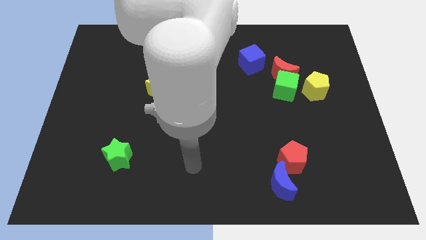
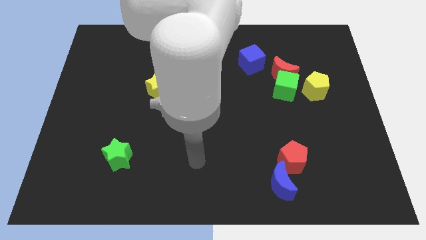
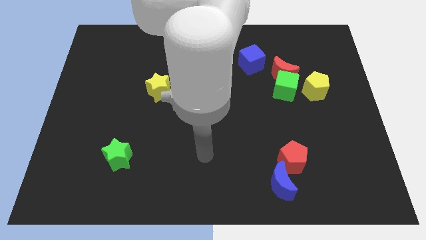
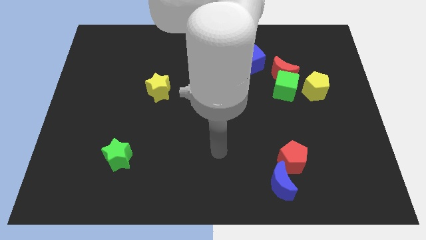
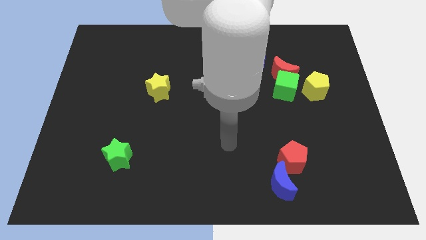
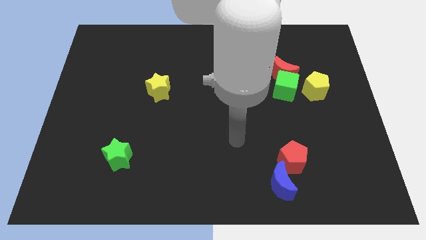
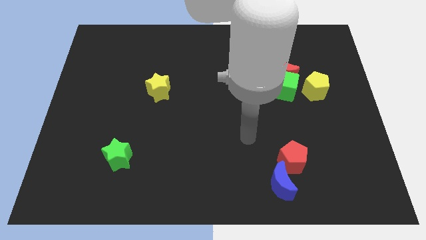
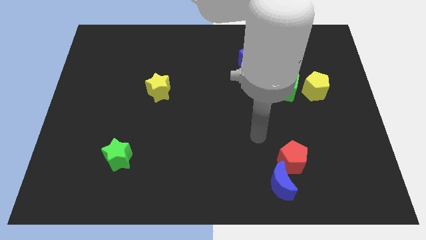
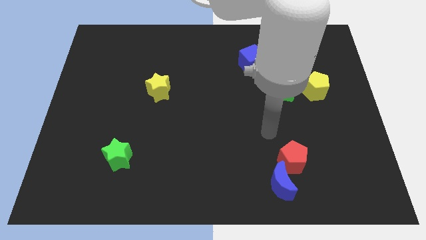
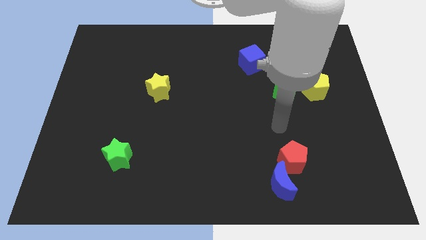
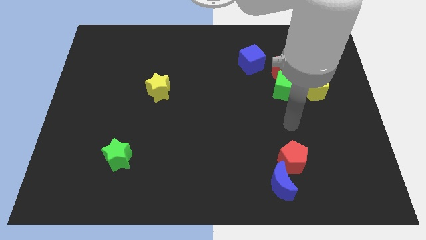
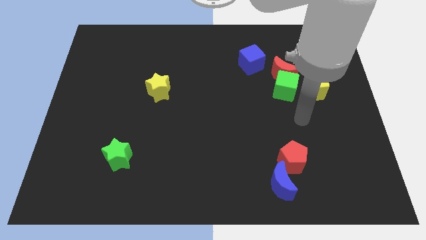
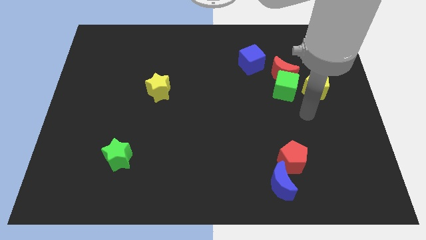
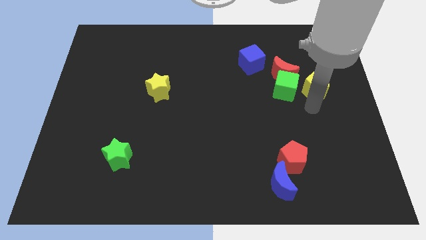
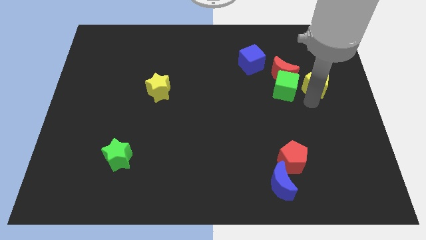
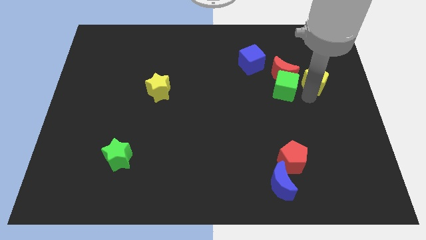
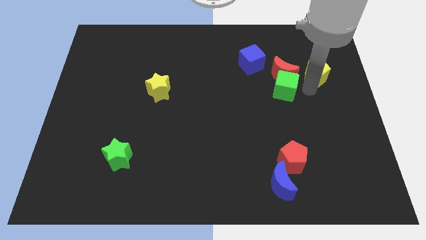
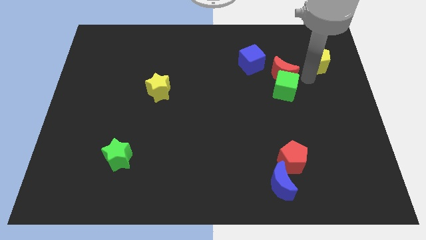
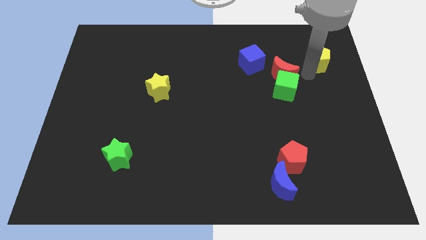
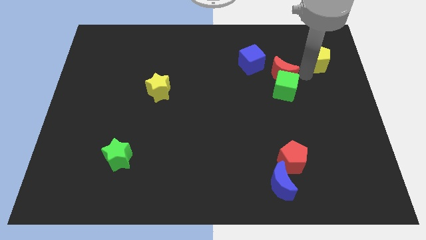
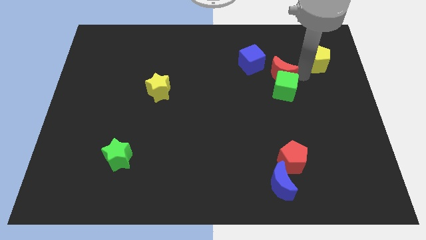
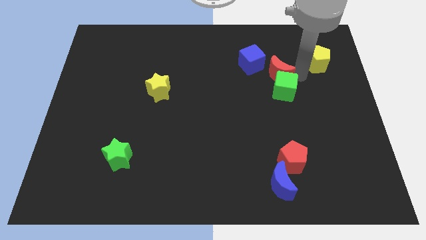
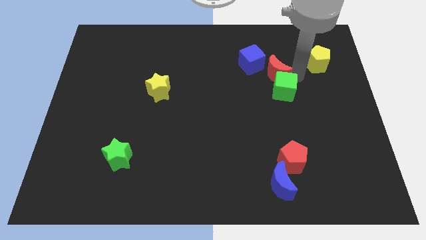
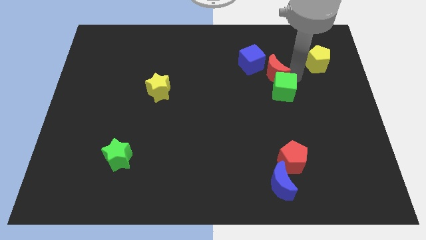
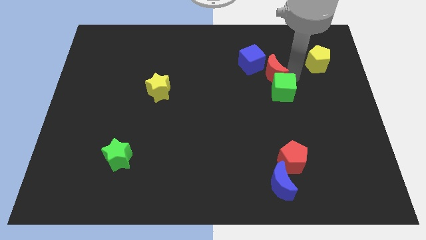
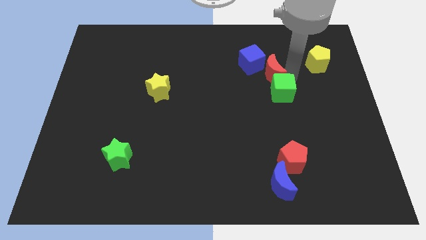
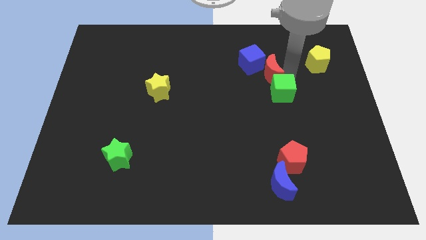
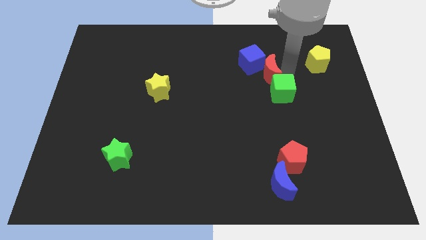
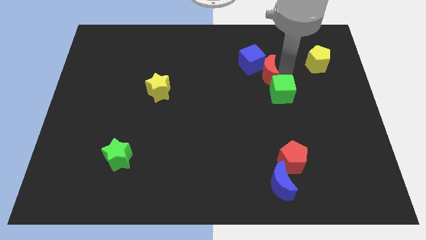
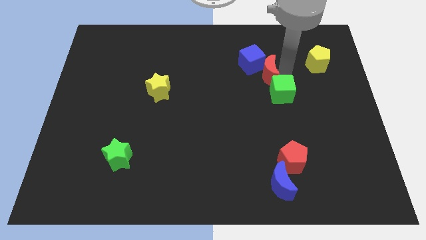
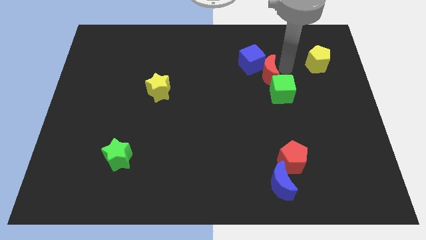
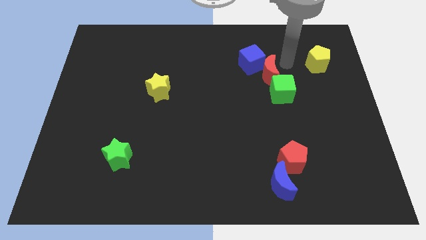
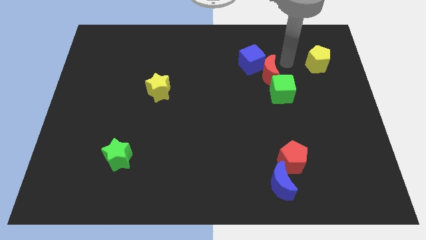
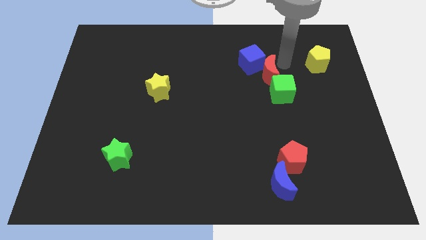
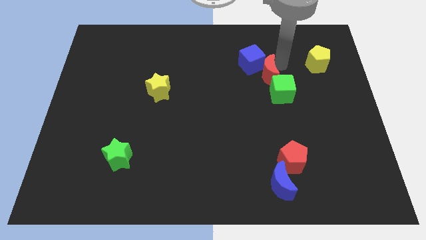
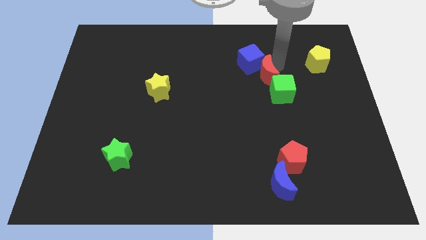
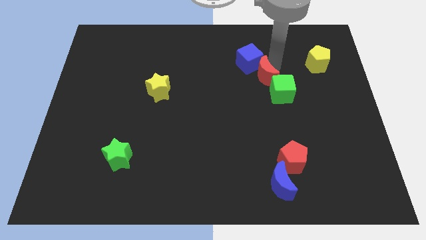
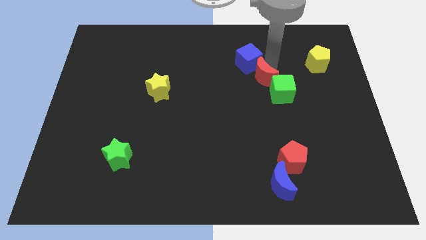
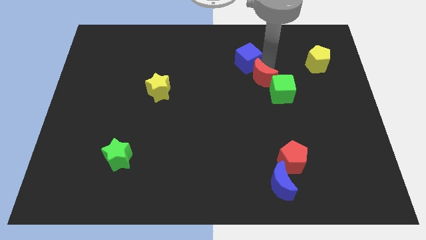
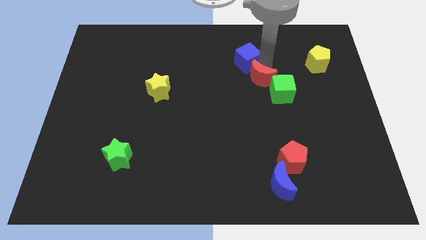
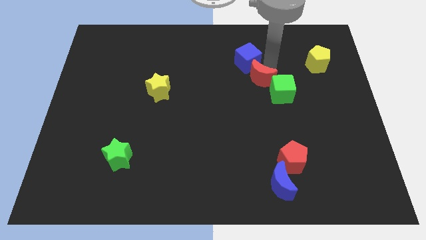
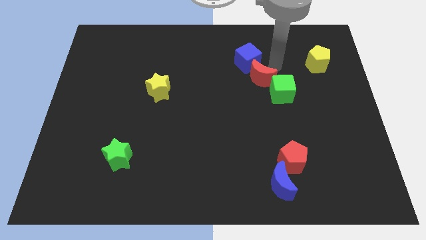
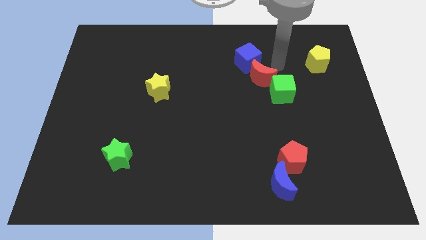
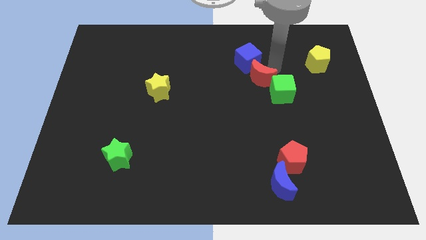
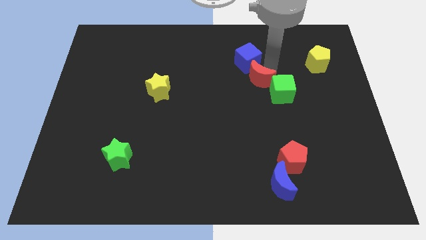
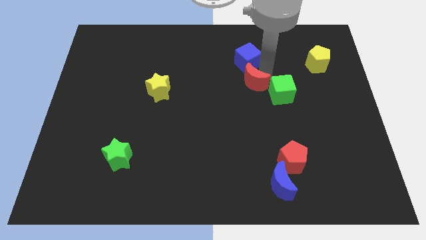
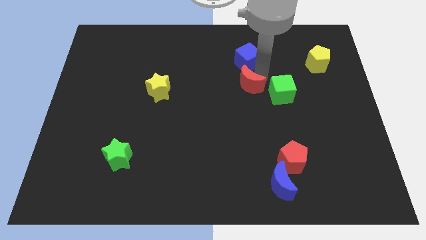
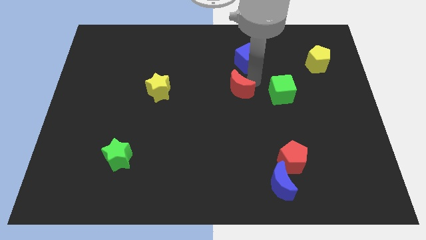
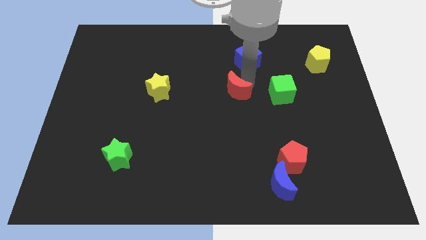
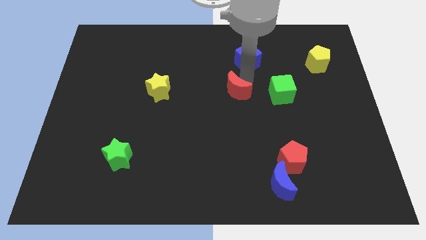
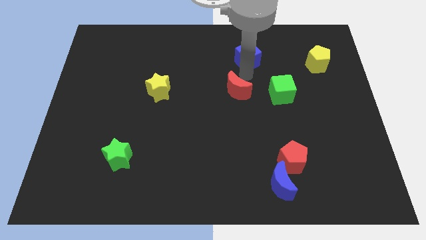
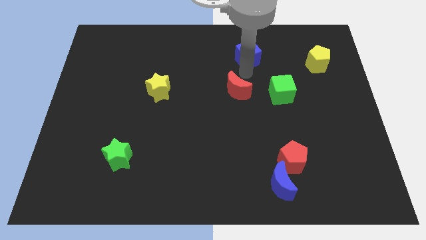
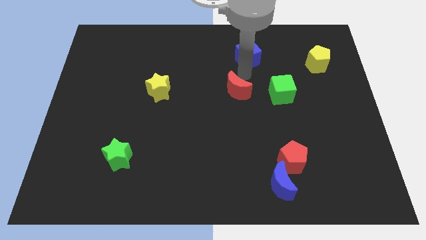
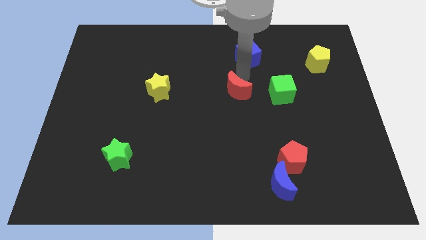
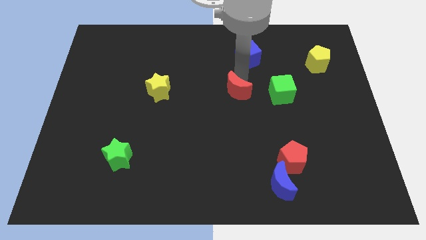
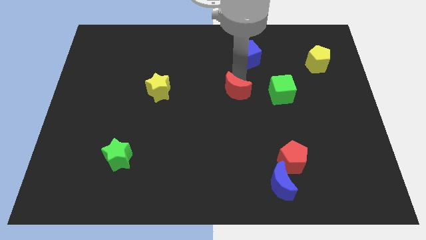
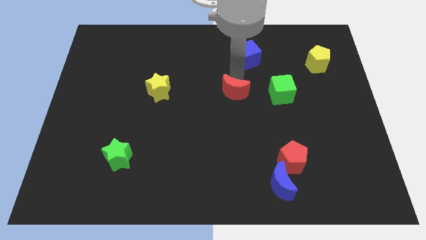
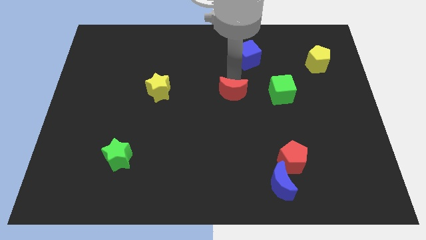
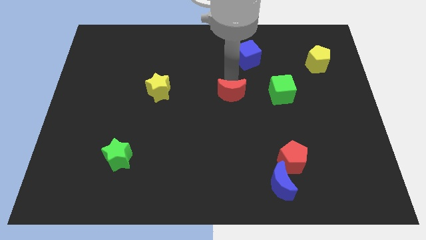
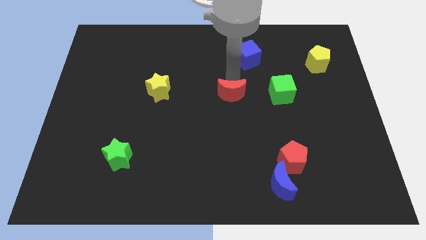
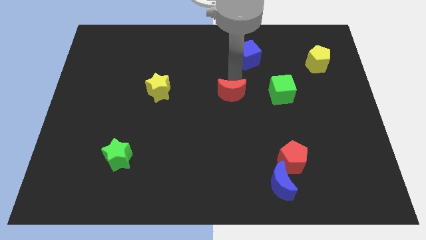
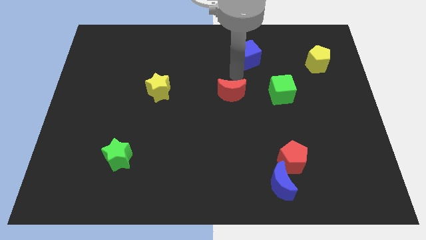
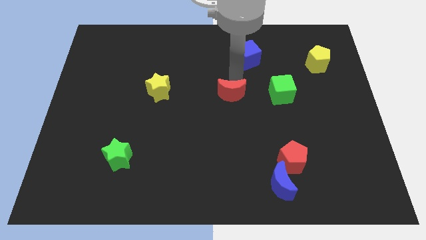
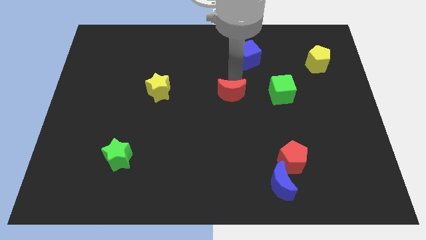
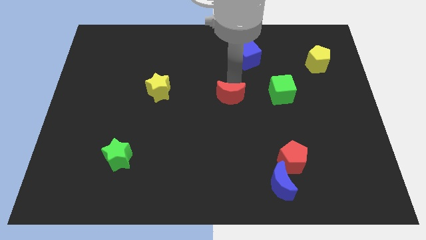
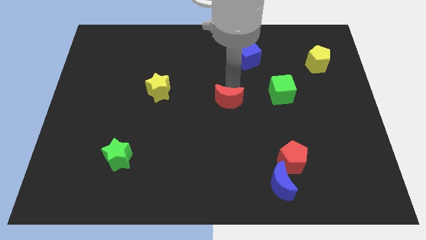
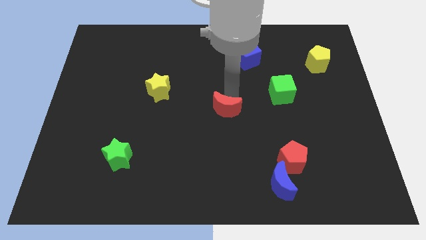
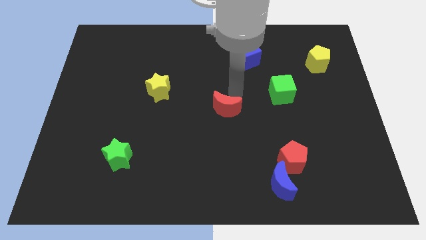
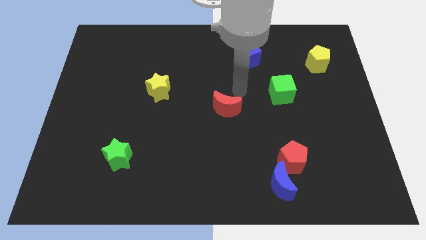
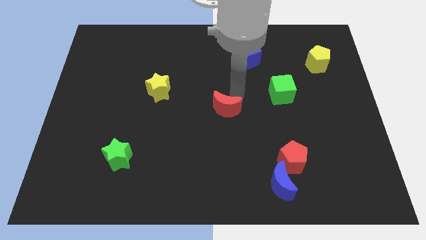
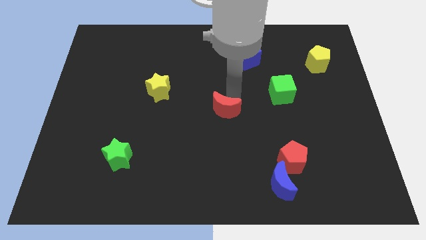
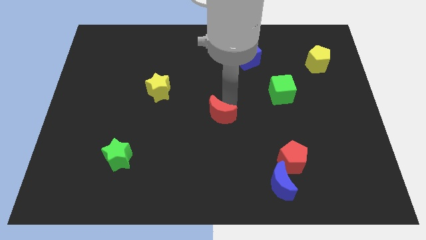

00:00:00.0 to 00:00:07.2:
move the red moon down and to the left

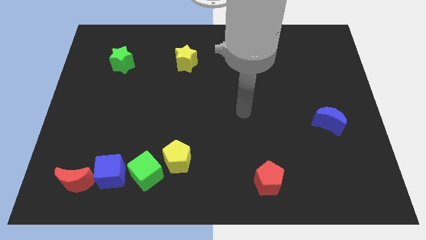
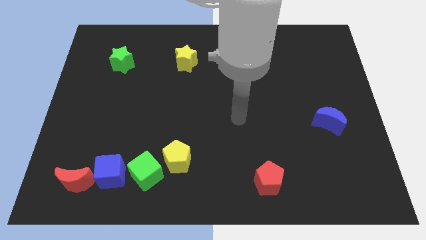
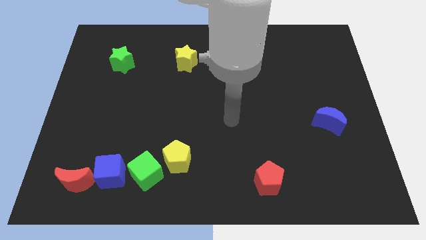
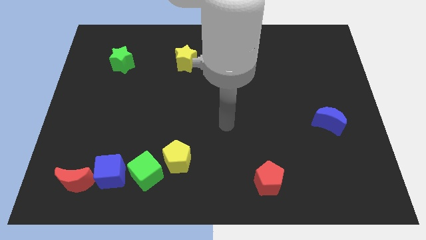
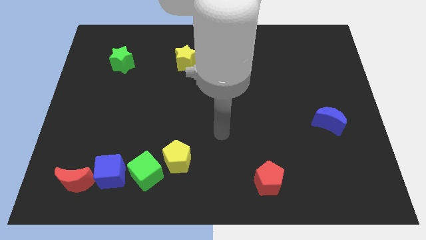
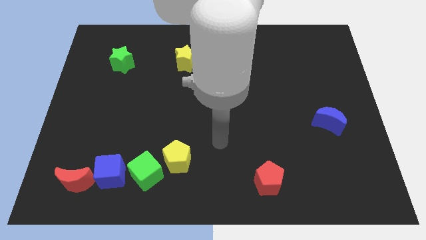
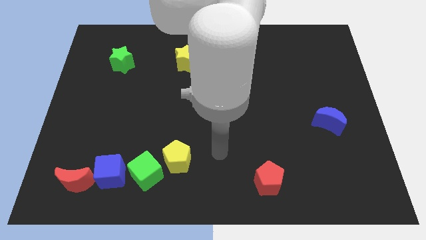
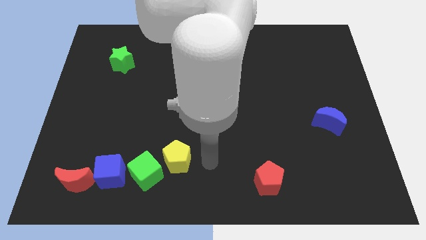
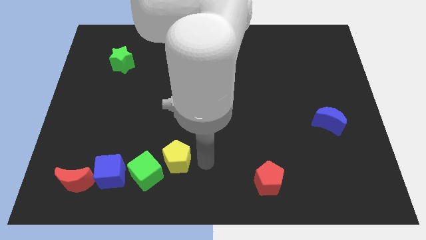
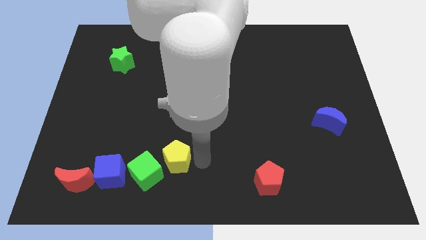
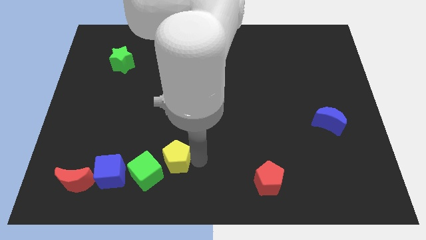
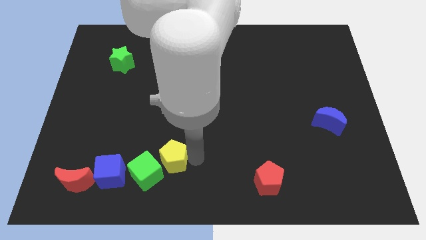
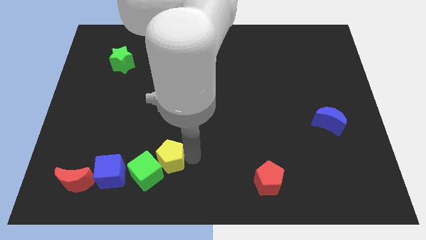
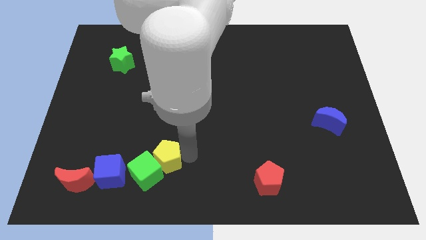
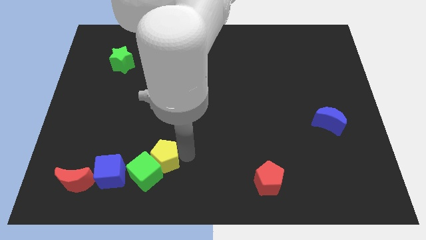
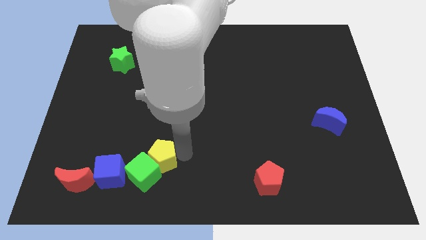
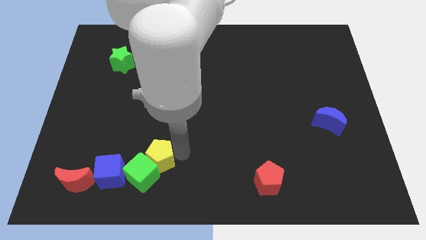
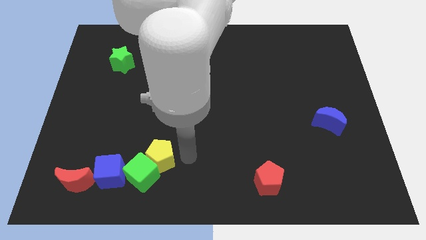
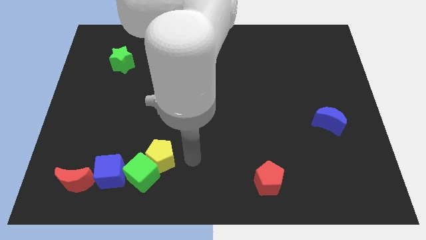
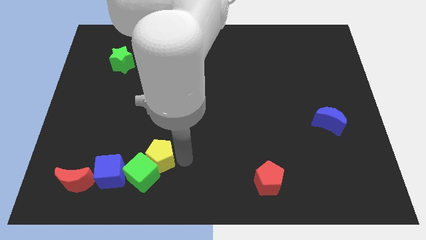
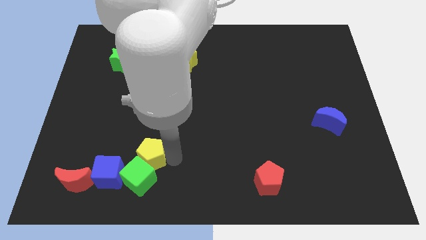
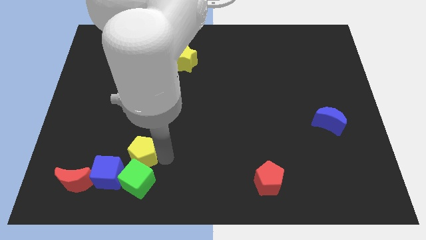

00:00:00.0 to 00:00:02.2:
push the yellow pentagon a little to the left
